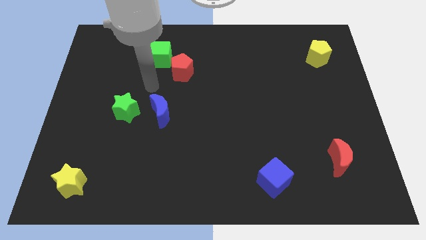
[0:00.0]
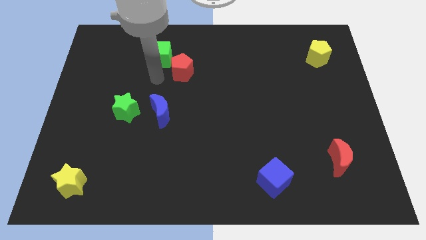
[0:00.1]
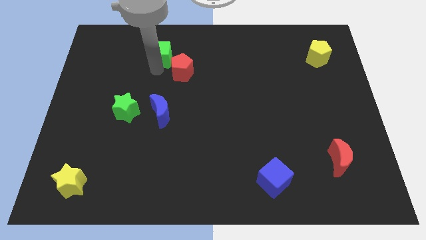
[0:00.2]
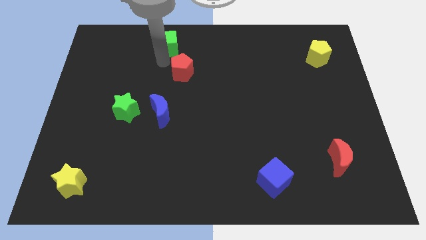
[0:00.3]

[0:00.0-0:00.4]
pull the red pentagon apart from the green cube

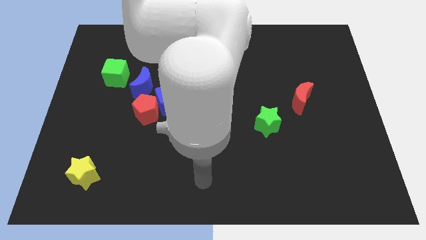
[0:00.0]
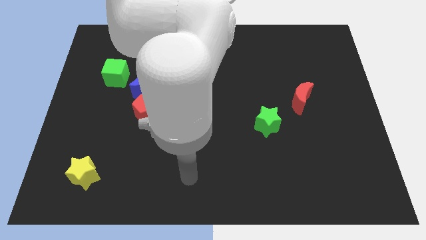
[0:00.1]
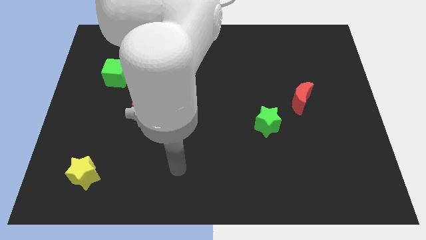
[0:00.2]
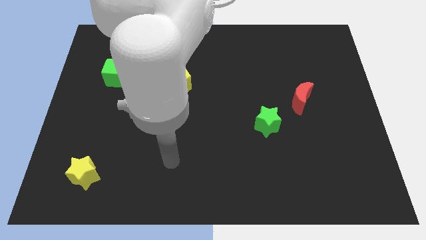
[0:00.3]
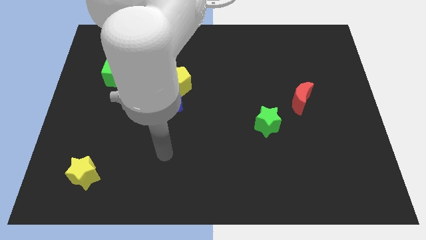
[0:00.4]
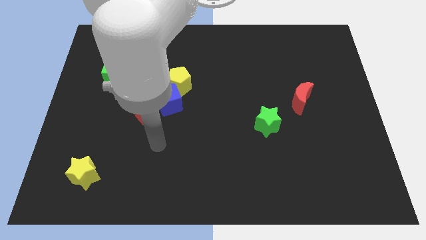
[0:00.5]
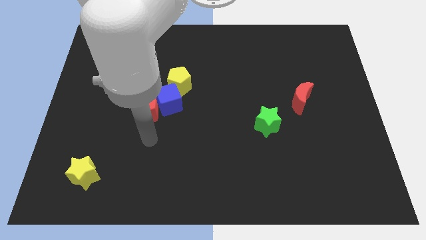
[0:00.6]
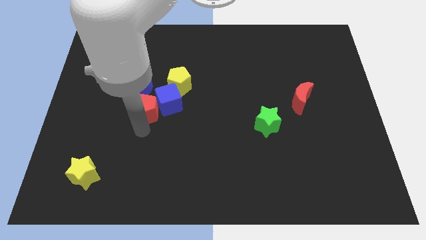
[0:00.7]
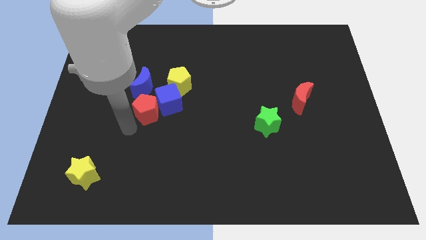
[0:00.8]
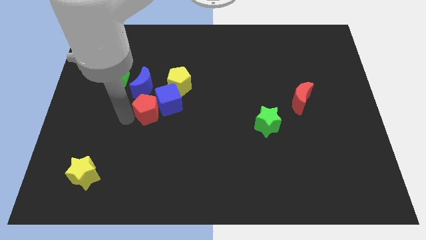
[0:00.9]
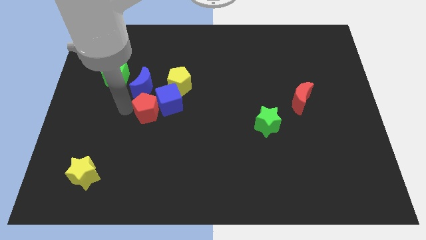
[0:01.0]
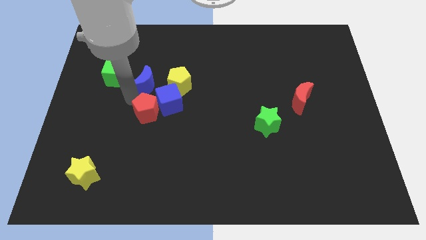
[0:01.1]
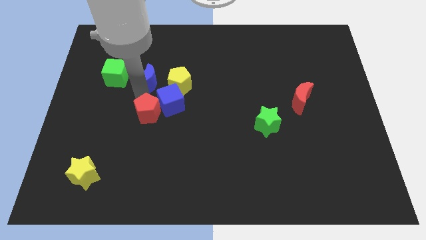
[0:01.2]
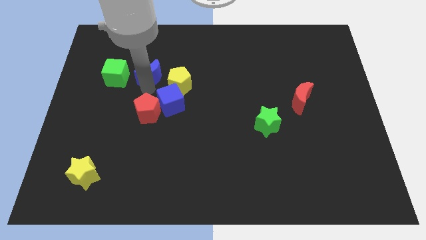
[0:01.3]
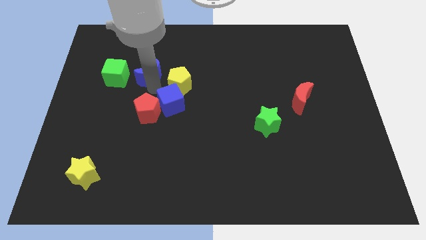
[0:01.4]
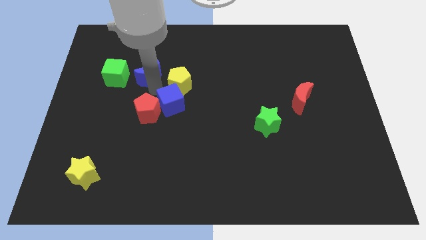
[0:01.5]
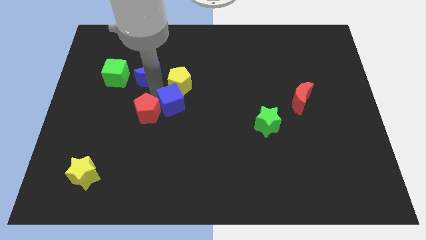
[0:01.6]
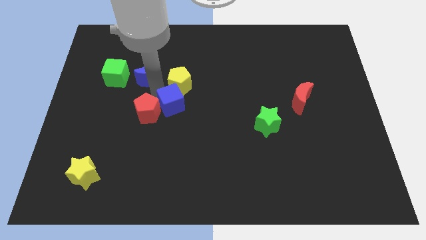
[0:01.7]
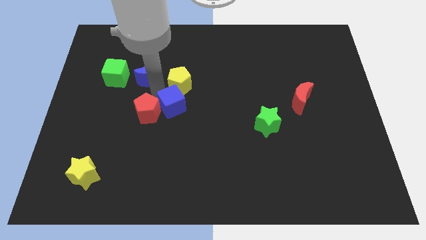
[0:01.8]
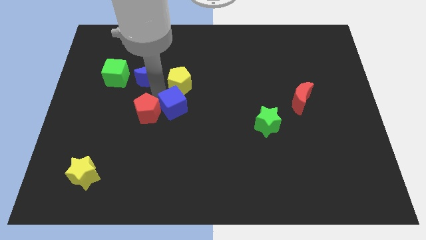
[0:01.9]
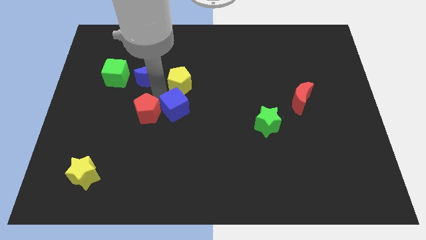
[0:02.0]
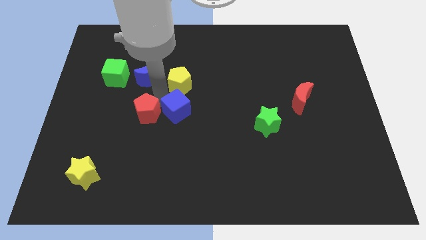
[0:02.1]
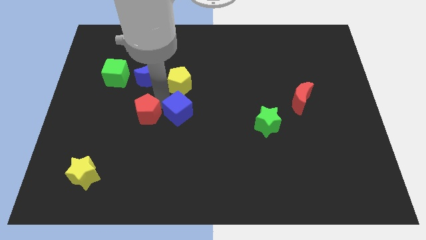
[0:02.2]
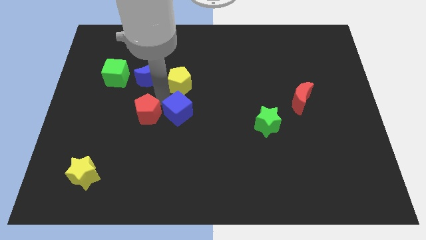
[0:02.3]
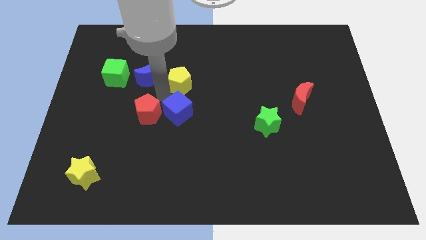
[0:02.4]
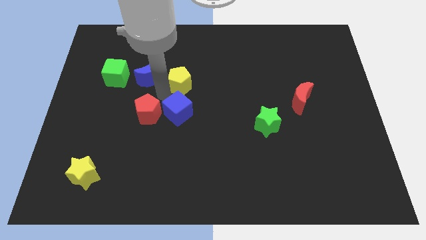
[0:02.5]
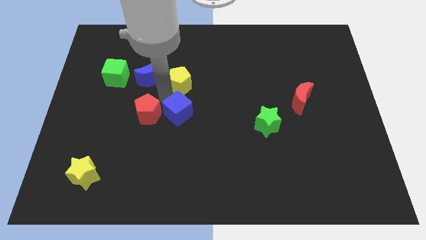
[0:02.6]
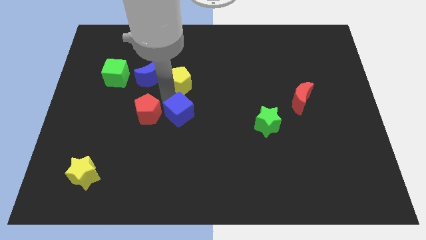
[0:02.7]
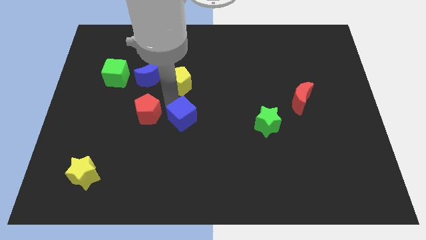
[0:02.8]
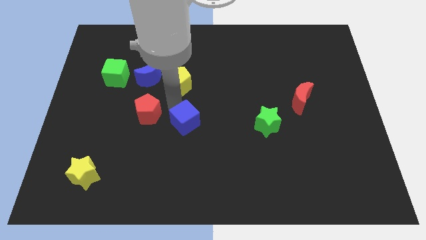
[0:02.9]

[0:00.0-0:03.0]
move the blue cube away from the red pentagon, yellow pentagon, and blue moon

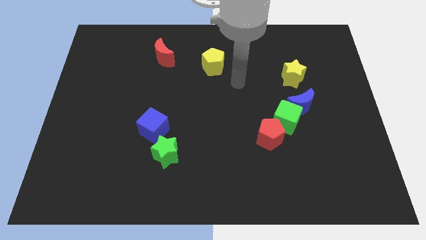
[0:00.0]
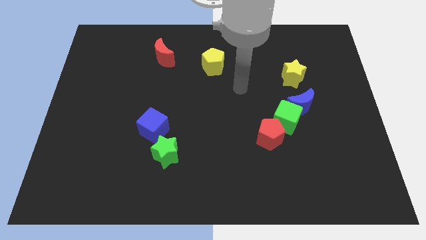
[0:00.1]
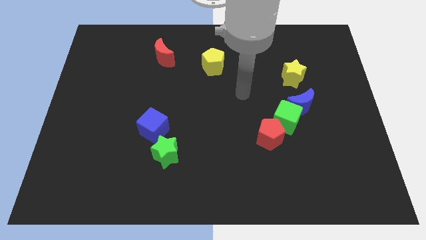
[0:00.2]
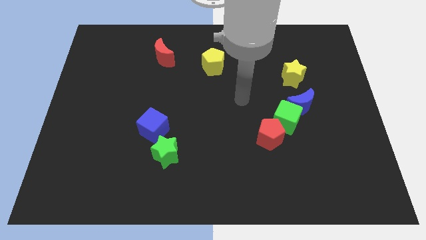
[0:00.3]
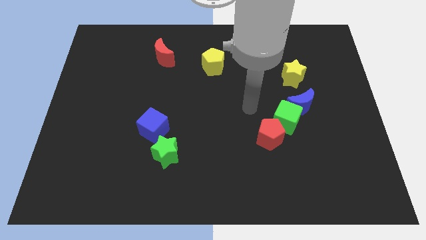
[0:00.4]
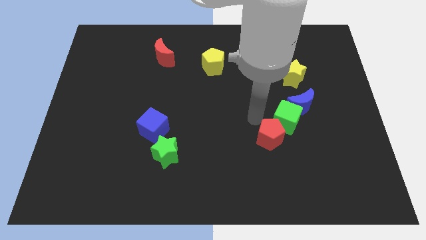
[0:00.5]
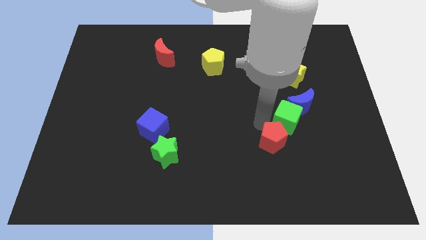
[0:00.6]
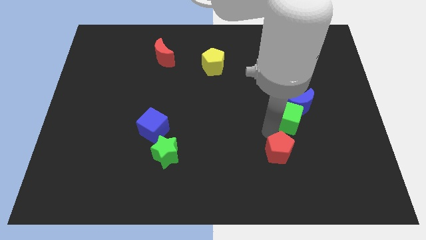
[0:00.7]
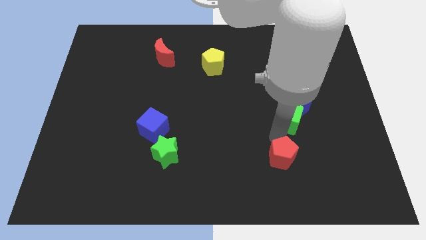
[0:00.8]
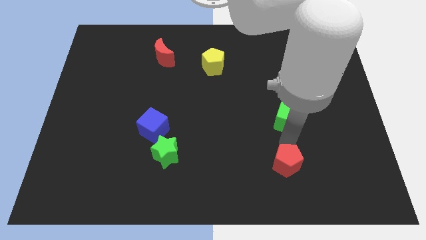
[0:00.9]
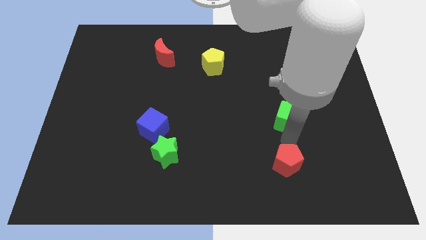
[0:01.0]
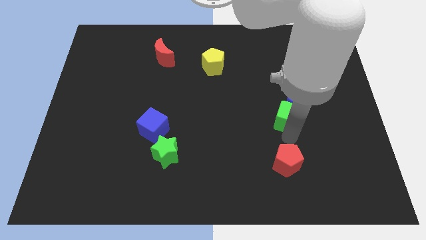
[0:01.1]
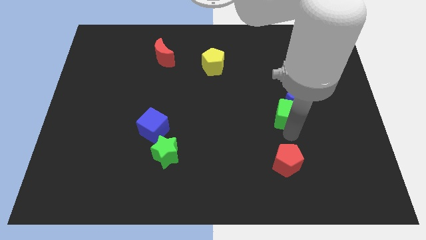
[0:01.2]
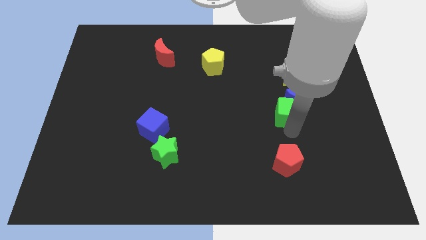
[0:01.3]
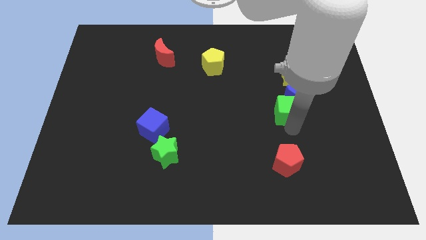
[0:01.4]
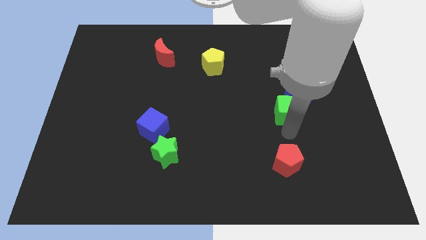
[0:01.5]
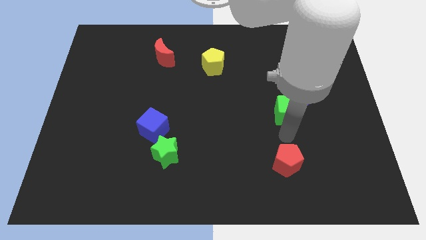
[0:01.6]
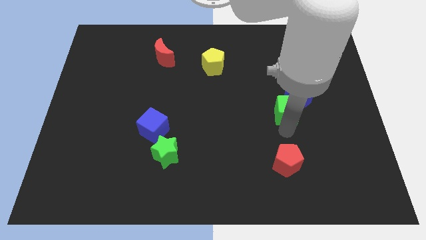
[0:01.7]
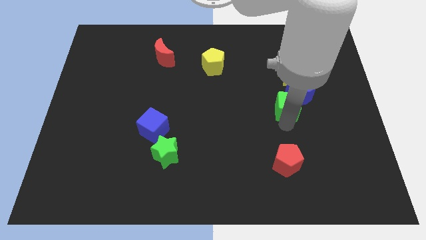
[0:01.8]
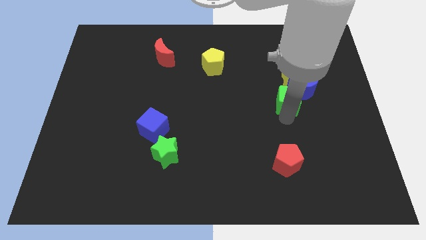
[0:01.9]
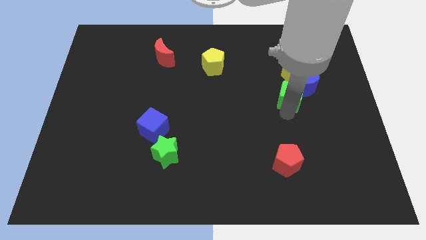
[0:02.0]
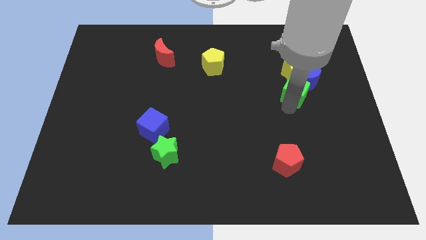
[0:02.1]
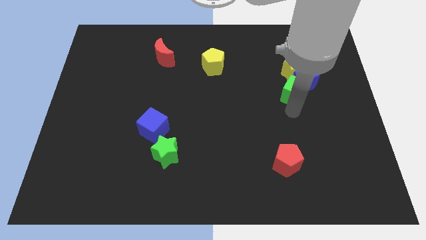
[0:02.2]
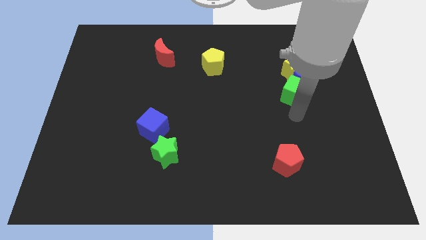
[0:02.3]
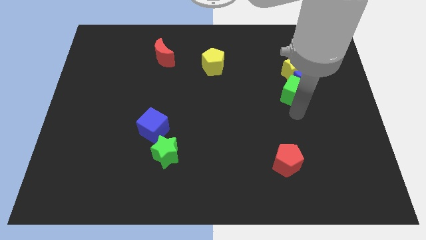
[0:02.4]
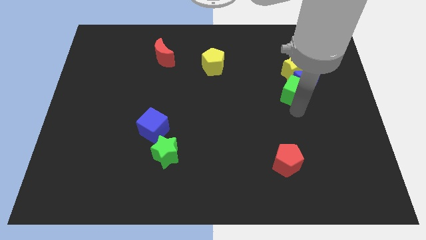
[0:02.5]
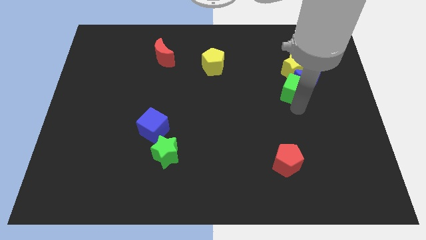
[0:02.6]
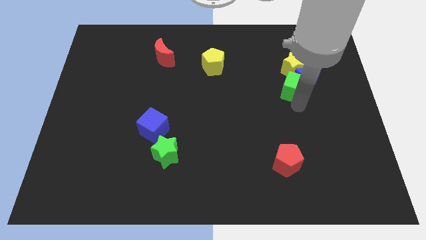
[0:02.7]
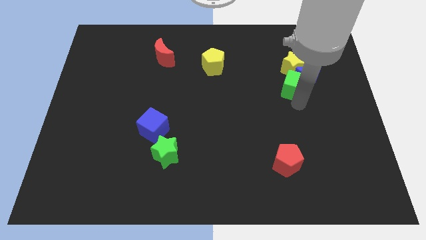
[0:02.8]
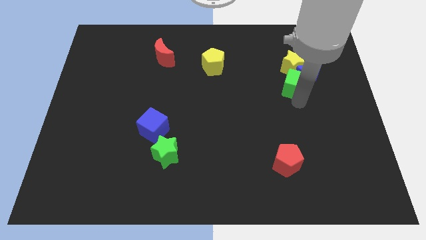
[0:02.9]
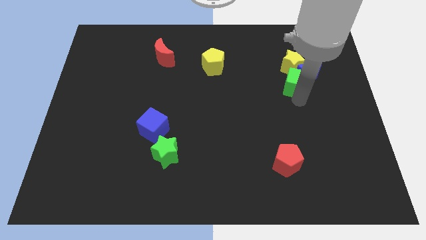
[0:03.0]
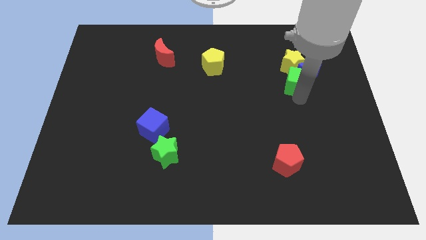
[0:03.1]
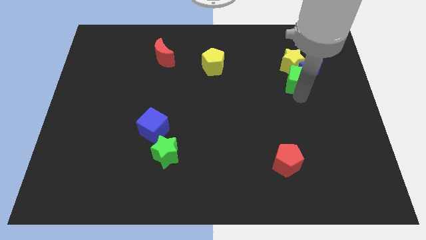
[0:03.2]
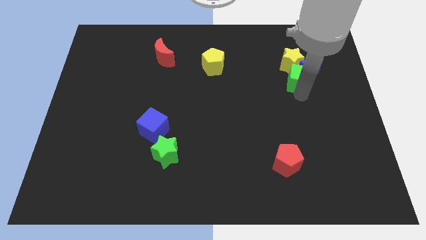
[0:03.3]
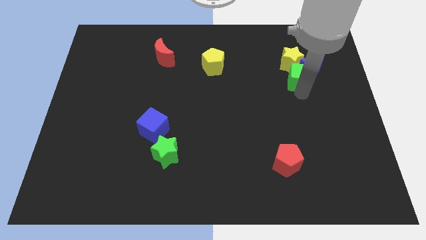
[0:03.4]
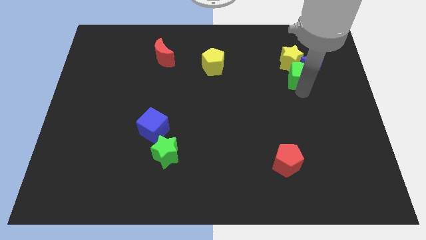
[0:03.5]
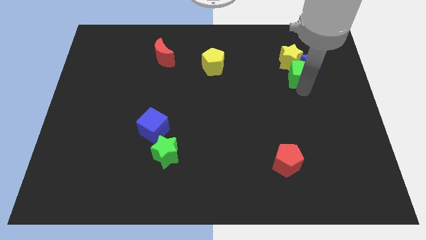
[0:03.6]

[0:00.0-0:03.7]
separate the green cube from the blue moon and red pentagon

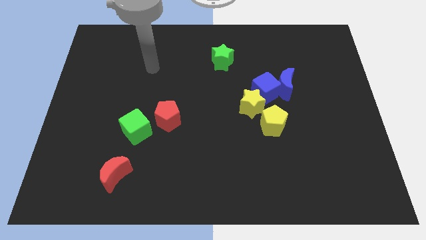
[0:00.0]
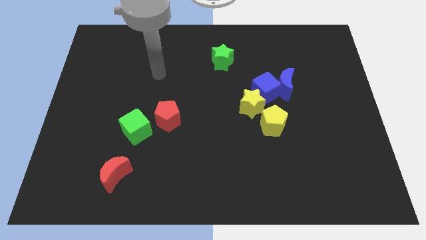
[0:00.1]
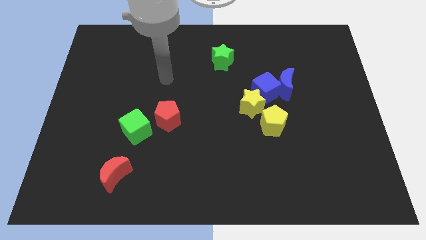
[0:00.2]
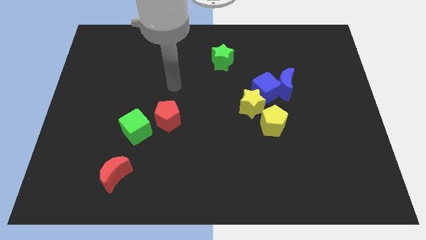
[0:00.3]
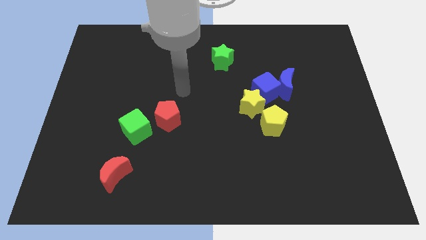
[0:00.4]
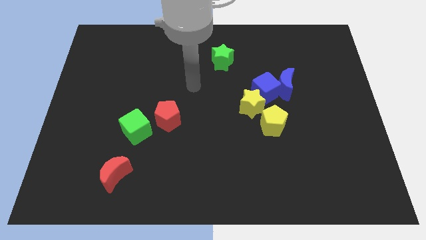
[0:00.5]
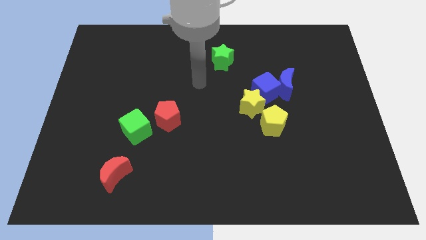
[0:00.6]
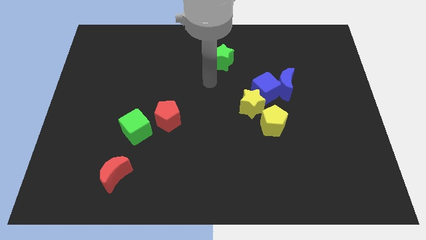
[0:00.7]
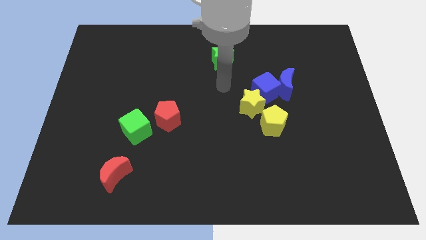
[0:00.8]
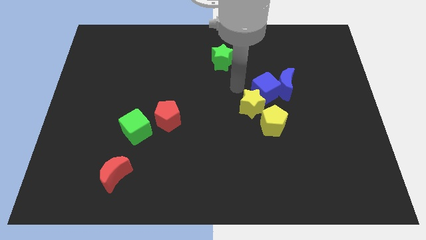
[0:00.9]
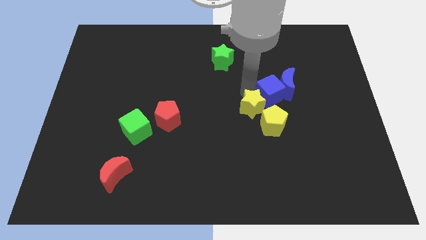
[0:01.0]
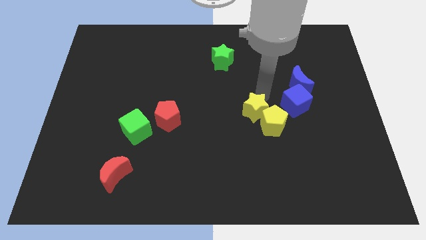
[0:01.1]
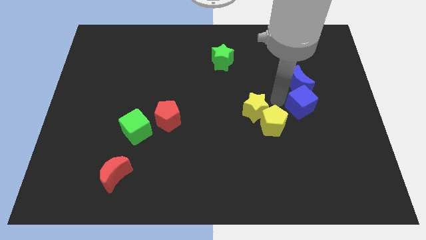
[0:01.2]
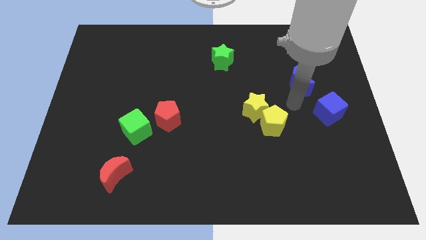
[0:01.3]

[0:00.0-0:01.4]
move the blue moon away from the blue cube

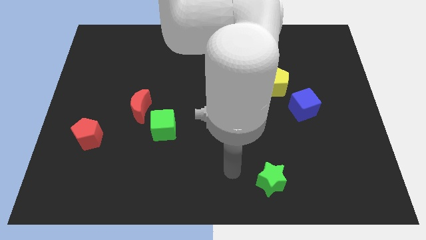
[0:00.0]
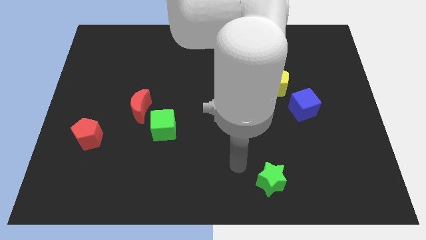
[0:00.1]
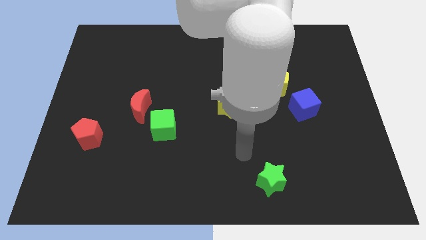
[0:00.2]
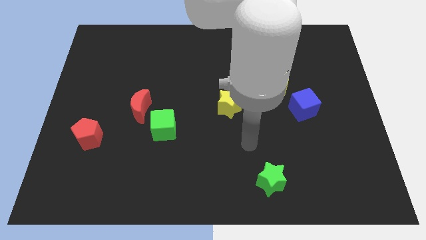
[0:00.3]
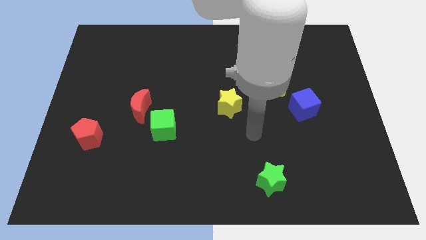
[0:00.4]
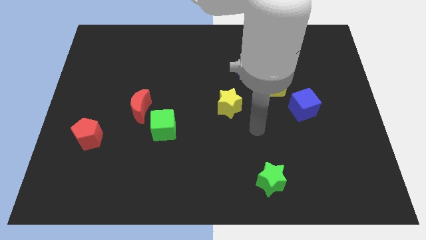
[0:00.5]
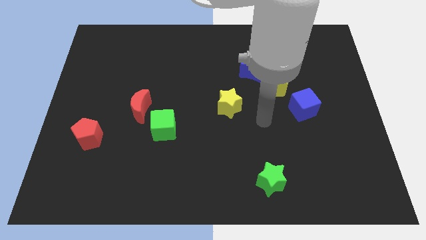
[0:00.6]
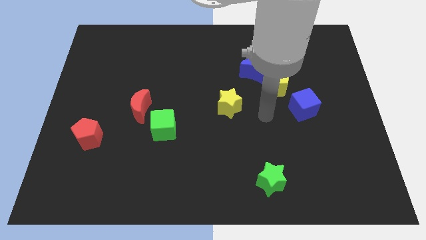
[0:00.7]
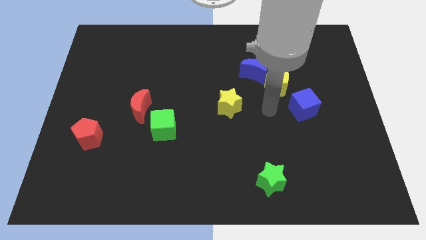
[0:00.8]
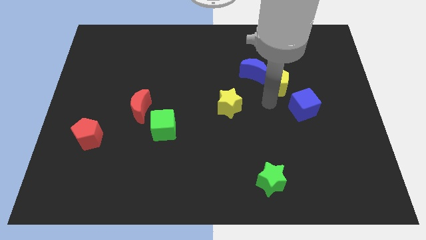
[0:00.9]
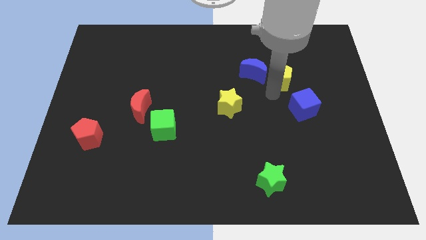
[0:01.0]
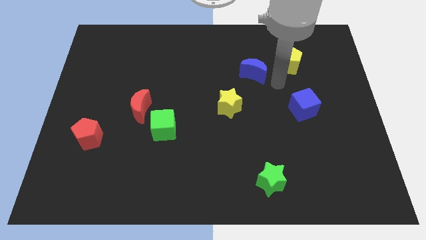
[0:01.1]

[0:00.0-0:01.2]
move the blue moon away from the yellow pentagon
